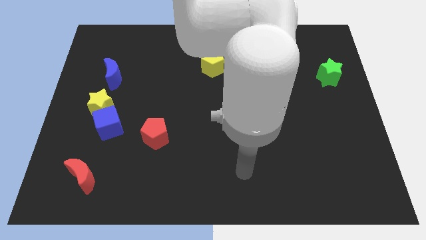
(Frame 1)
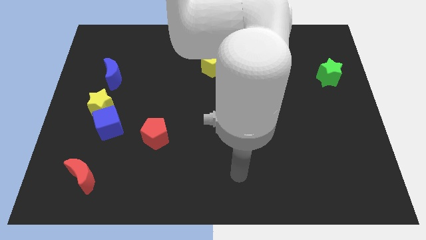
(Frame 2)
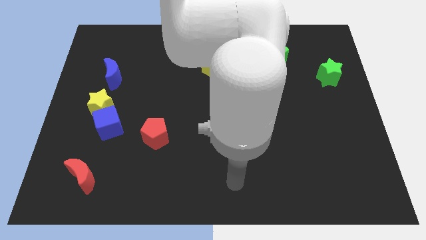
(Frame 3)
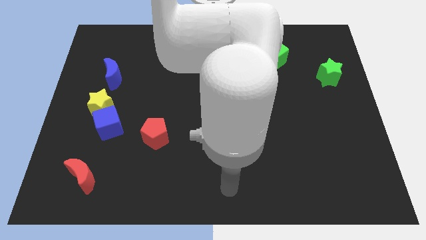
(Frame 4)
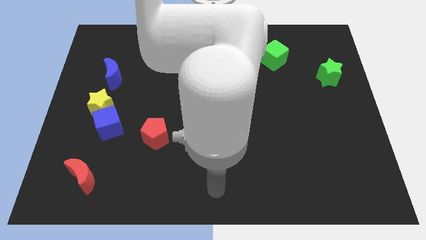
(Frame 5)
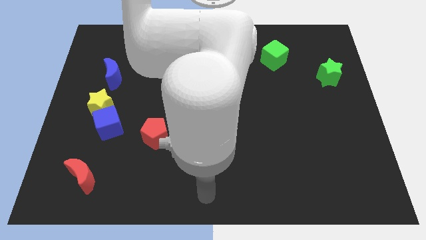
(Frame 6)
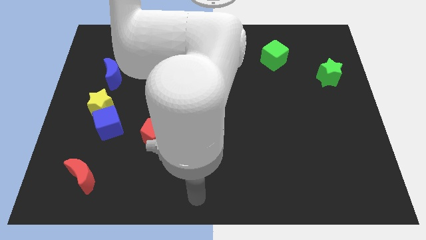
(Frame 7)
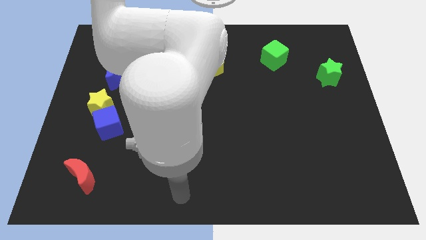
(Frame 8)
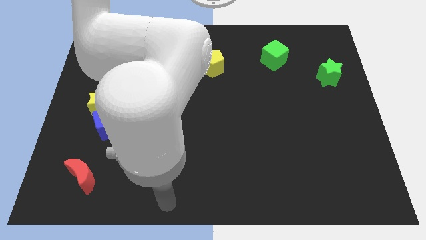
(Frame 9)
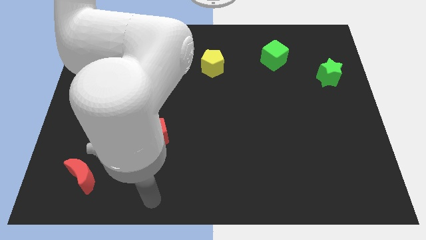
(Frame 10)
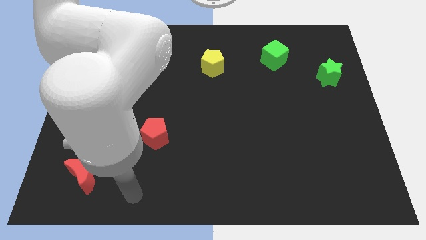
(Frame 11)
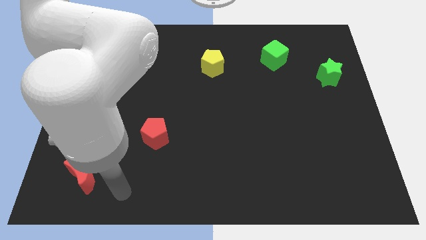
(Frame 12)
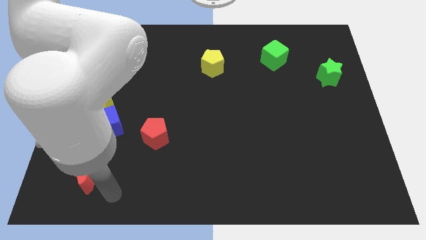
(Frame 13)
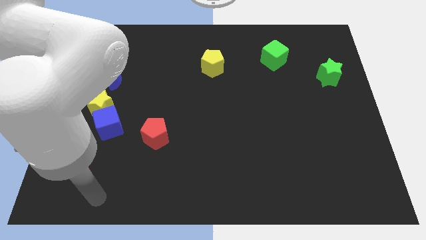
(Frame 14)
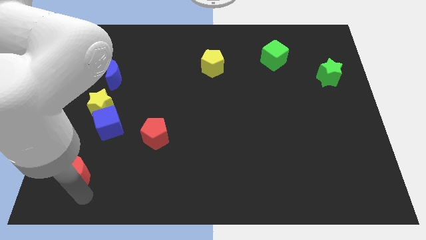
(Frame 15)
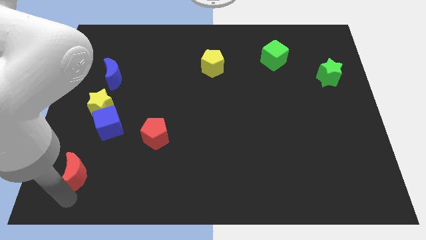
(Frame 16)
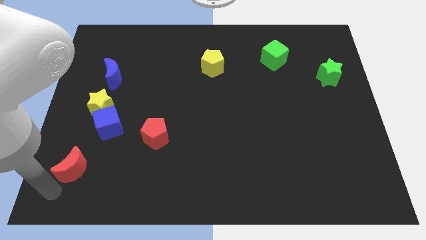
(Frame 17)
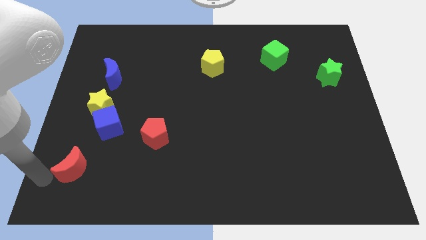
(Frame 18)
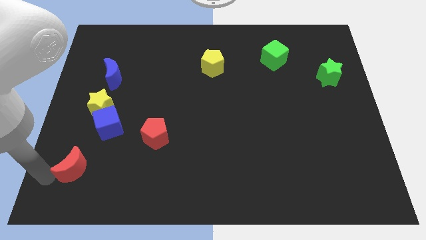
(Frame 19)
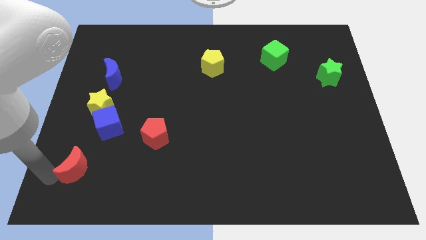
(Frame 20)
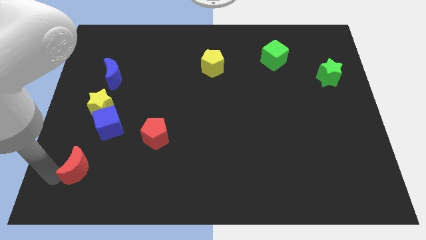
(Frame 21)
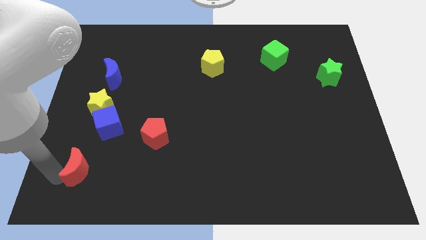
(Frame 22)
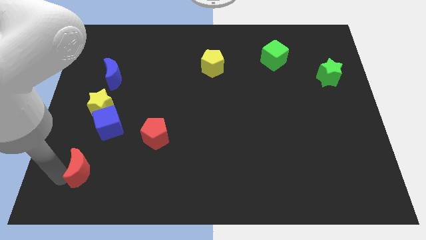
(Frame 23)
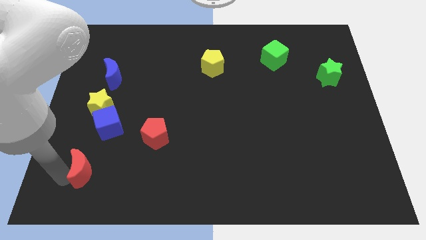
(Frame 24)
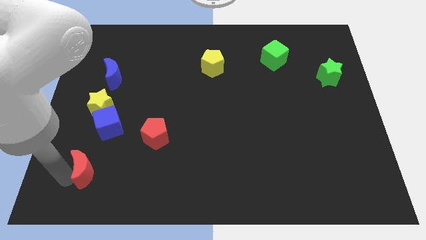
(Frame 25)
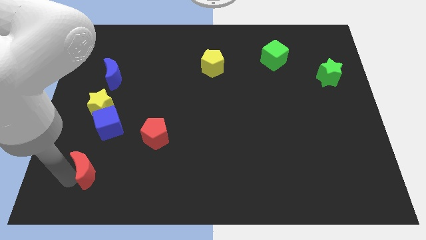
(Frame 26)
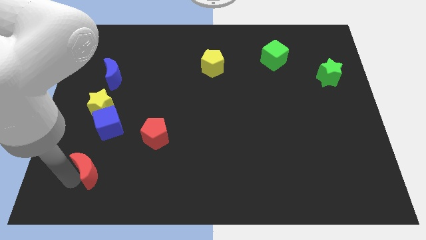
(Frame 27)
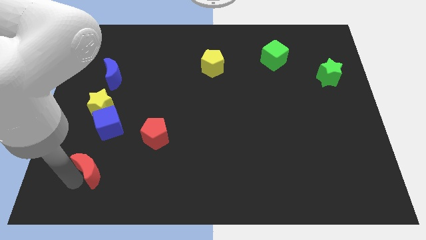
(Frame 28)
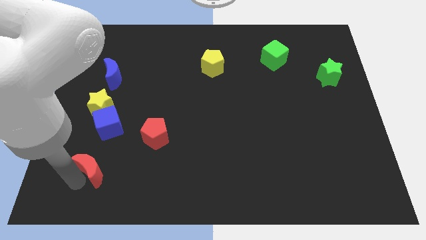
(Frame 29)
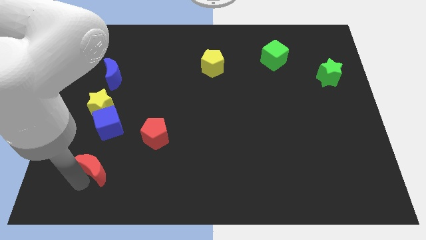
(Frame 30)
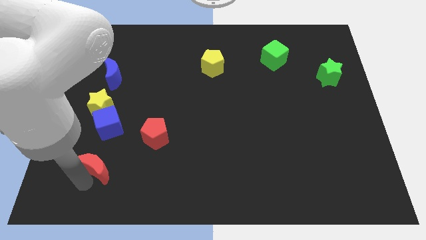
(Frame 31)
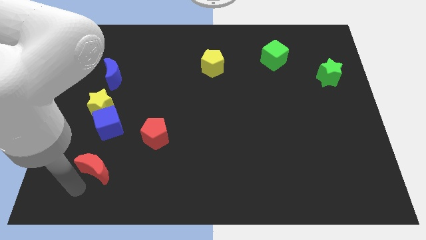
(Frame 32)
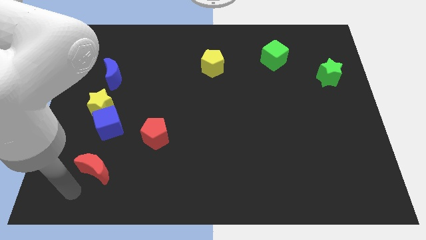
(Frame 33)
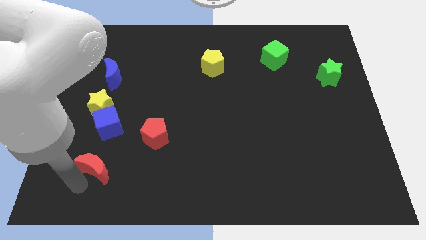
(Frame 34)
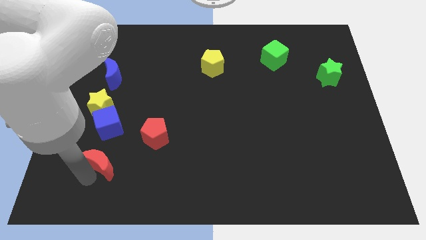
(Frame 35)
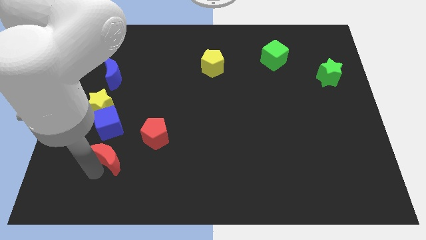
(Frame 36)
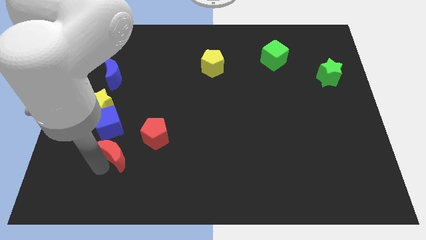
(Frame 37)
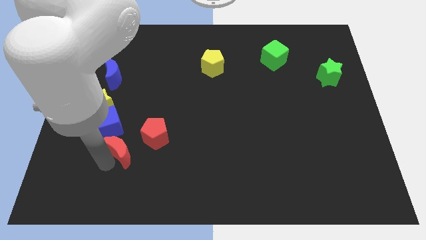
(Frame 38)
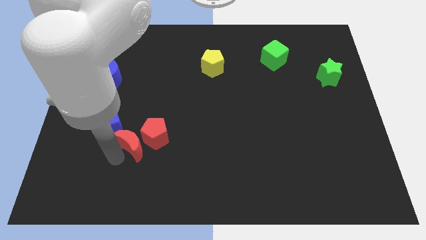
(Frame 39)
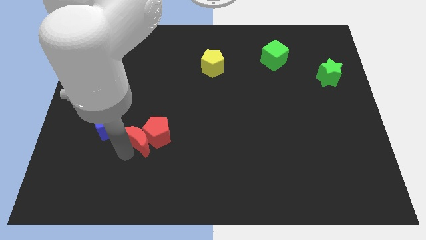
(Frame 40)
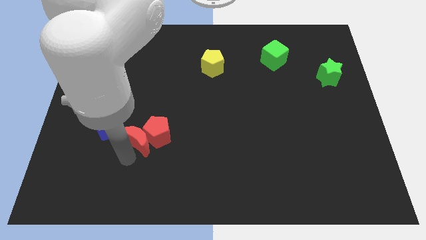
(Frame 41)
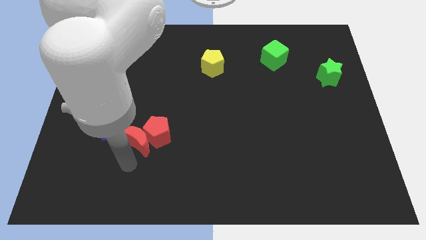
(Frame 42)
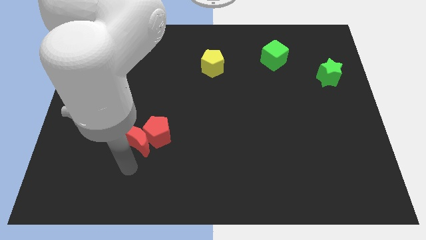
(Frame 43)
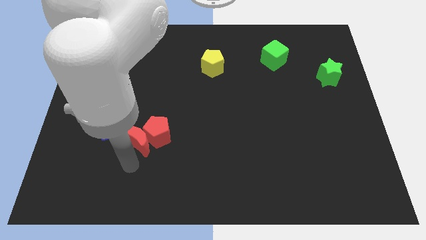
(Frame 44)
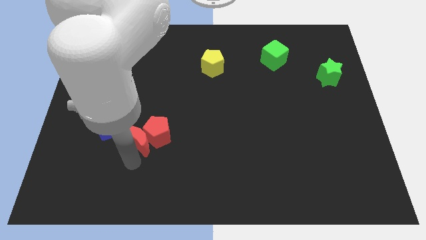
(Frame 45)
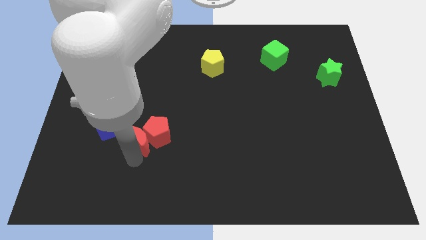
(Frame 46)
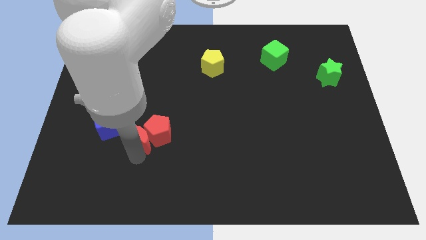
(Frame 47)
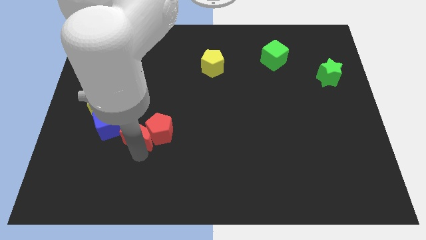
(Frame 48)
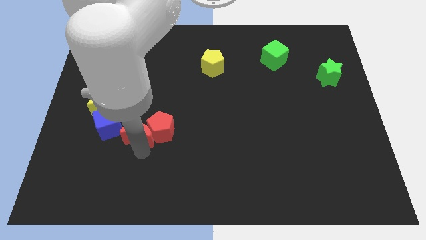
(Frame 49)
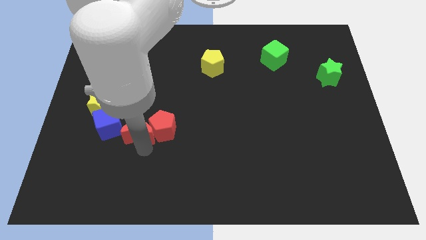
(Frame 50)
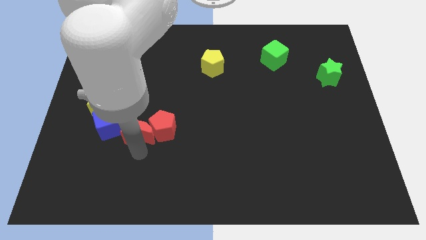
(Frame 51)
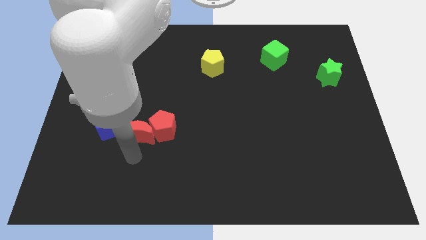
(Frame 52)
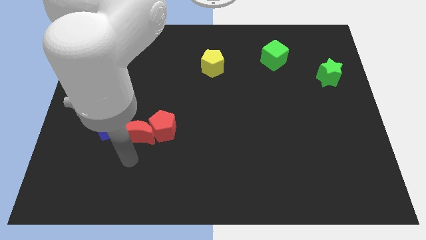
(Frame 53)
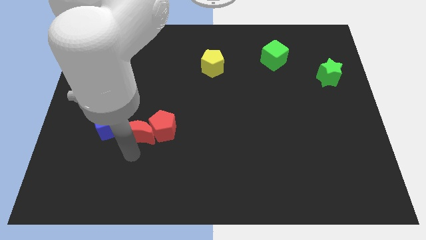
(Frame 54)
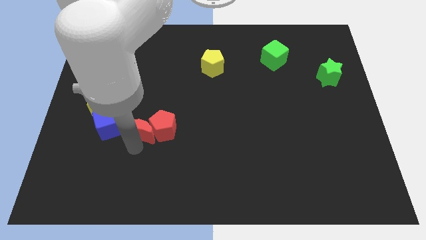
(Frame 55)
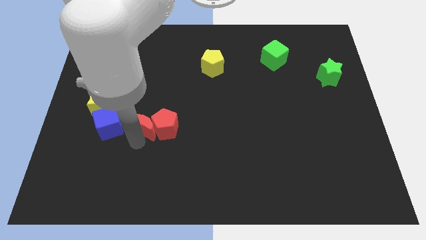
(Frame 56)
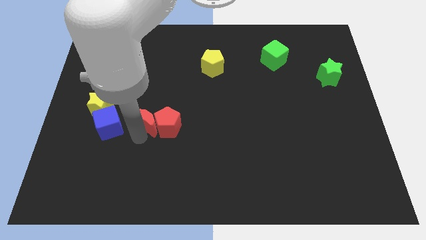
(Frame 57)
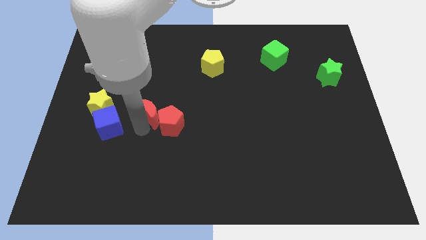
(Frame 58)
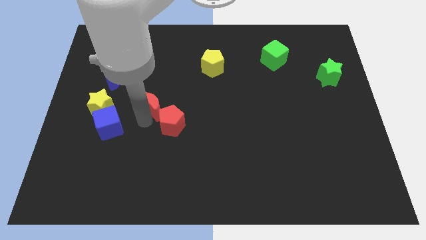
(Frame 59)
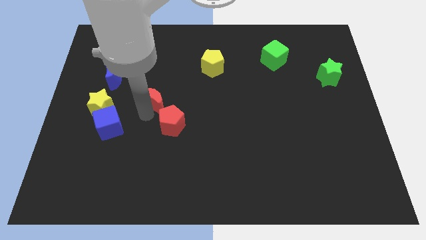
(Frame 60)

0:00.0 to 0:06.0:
slide the red moon to the top side of the red pentagon

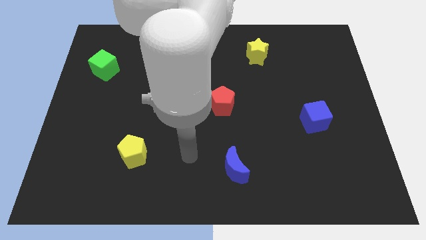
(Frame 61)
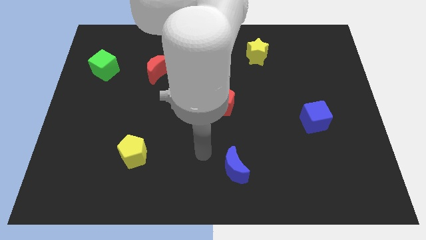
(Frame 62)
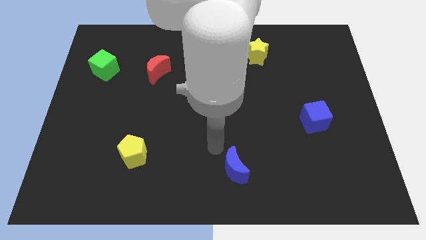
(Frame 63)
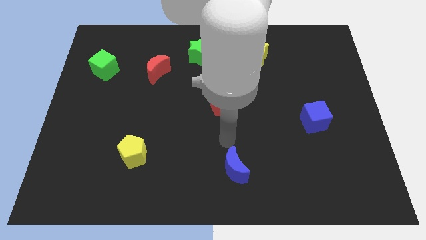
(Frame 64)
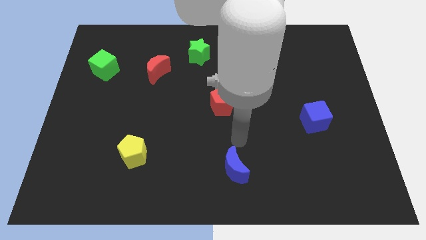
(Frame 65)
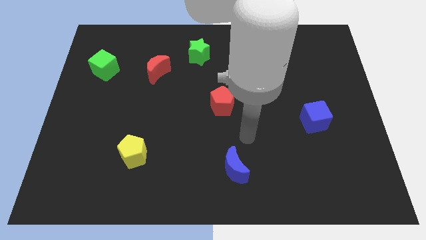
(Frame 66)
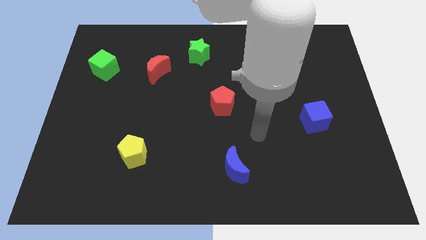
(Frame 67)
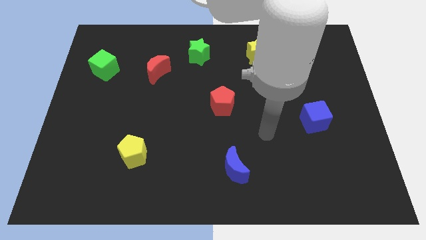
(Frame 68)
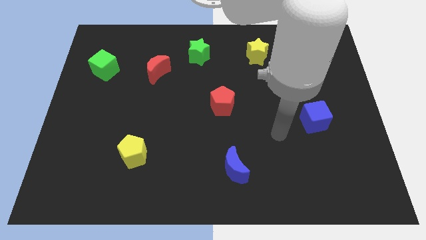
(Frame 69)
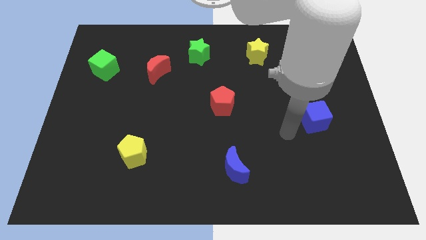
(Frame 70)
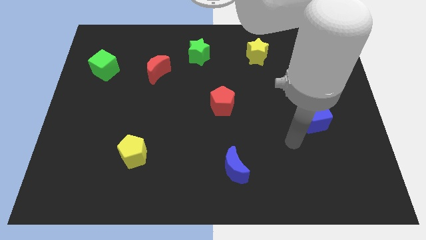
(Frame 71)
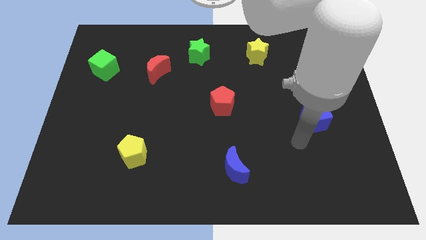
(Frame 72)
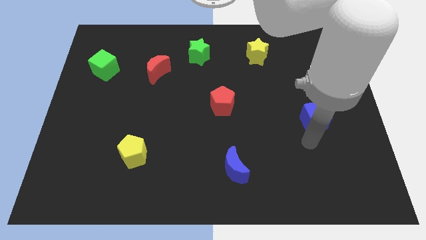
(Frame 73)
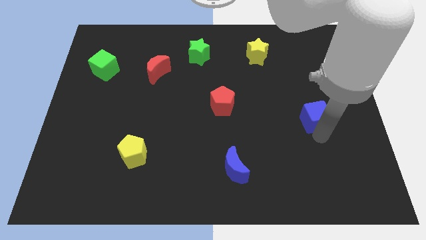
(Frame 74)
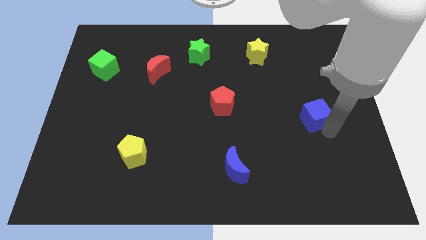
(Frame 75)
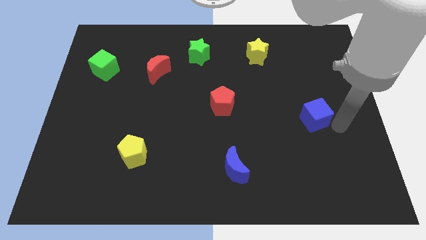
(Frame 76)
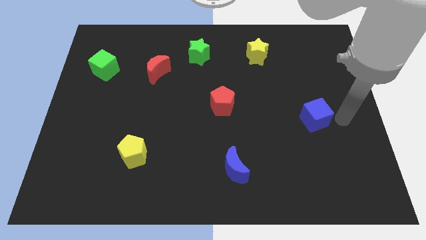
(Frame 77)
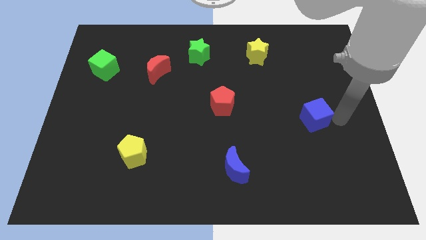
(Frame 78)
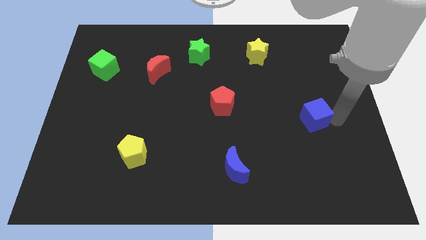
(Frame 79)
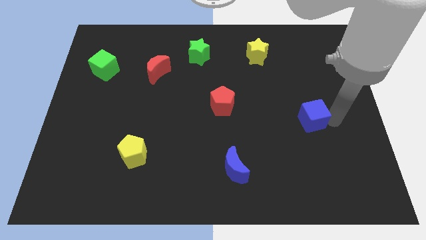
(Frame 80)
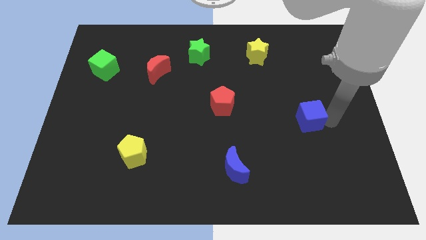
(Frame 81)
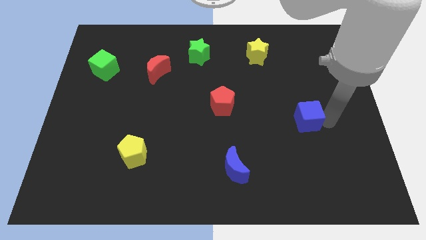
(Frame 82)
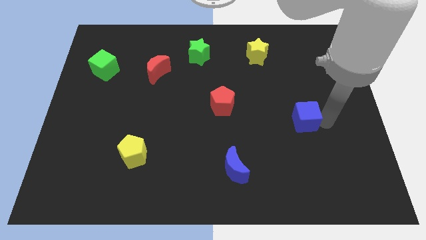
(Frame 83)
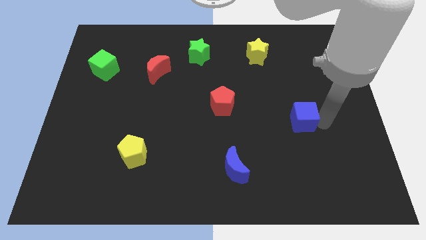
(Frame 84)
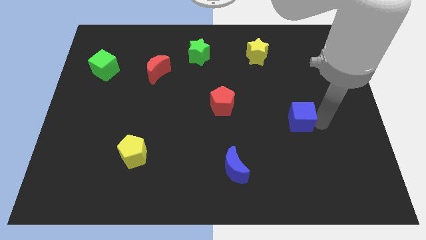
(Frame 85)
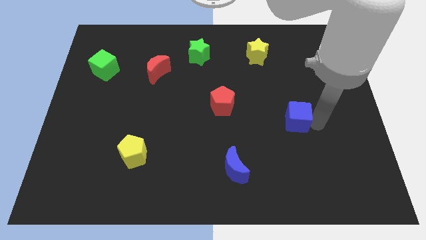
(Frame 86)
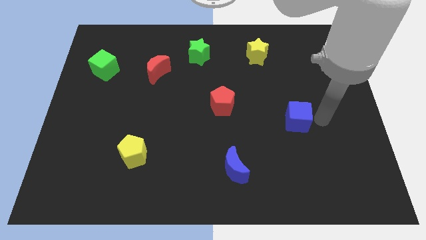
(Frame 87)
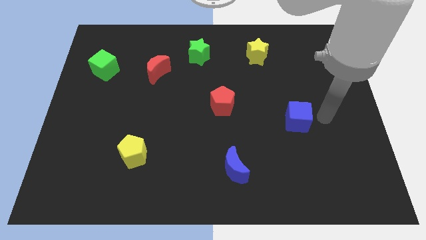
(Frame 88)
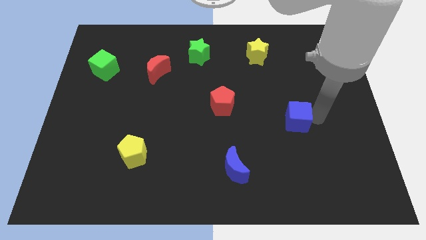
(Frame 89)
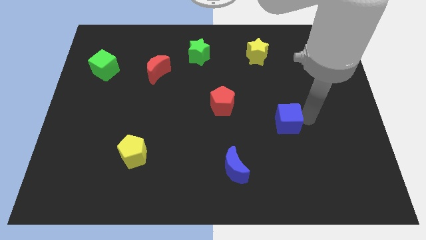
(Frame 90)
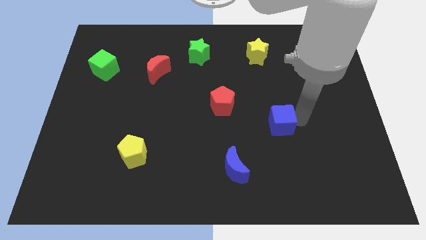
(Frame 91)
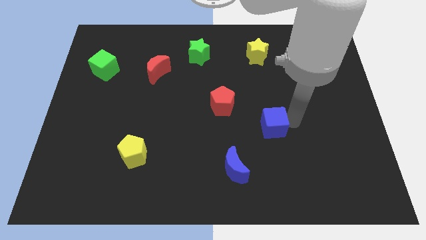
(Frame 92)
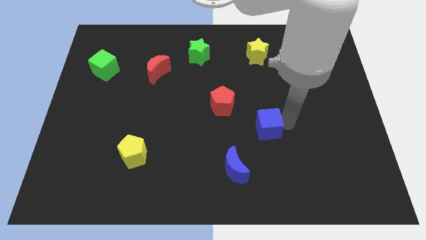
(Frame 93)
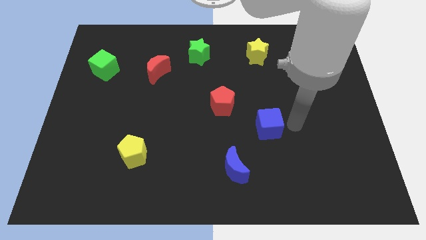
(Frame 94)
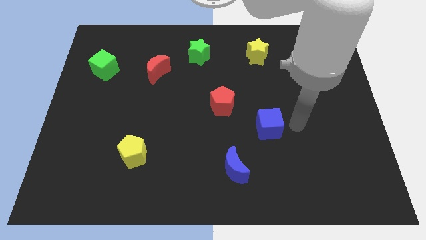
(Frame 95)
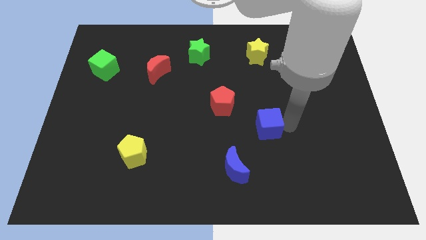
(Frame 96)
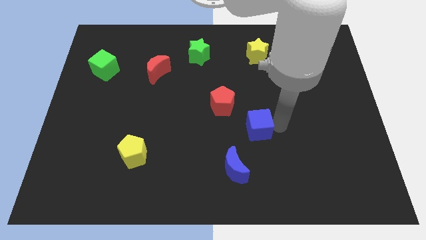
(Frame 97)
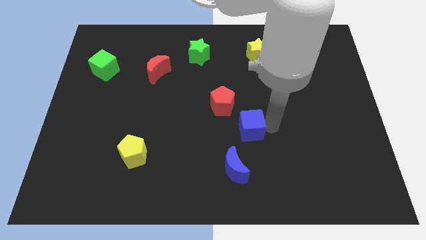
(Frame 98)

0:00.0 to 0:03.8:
move the blue cube to the top of the blue moon
